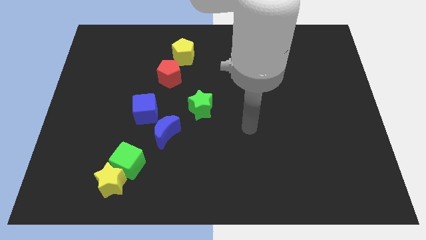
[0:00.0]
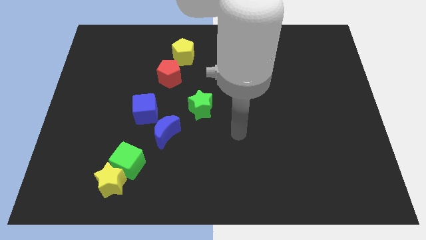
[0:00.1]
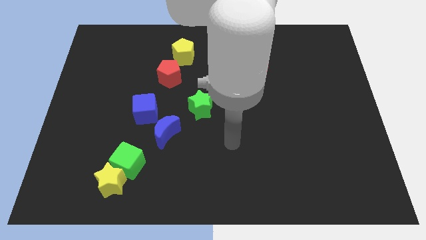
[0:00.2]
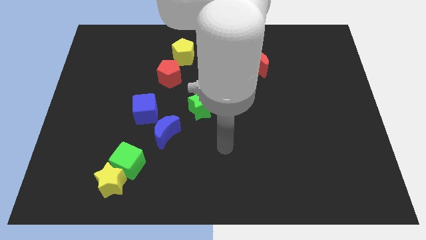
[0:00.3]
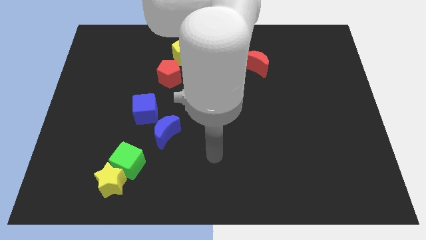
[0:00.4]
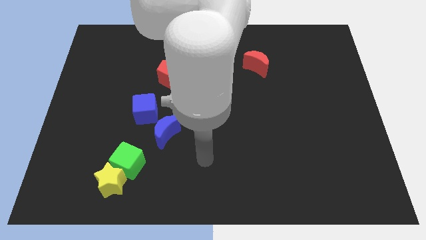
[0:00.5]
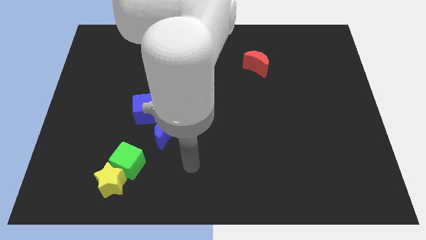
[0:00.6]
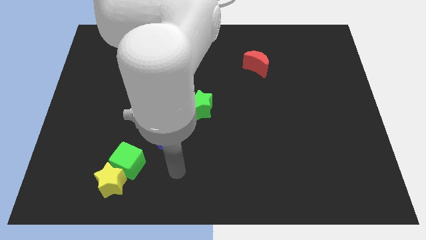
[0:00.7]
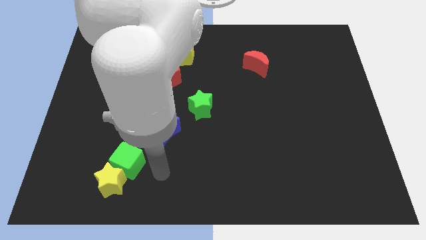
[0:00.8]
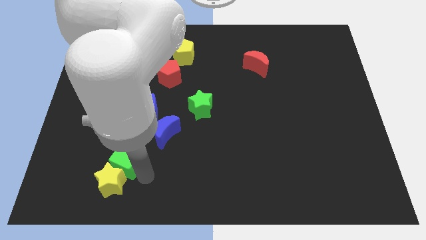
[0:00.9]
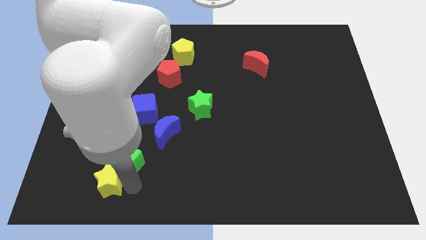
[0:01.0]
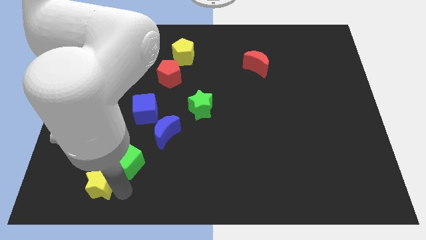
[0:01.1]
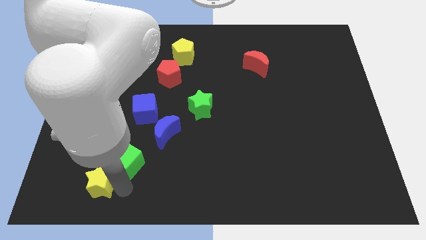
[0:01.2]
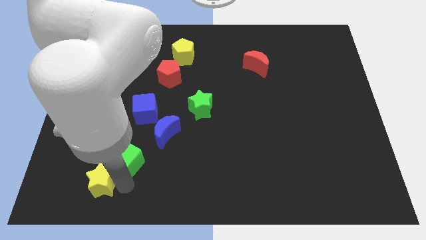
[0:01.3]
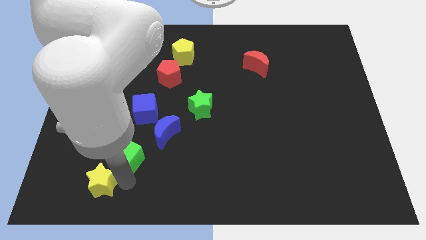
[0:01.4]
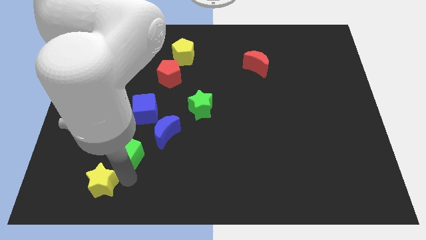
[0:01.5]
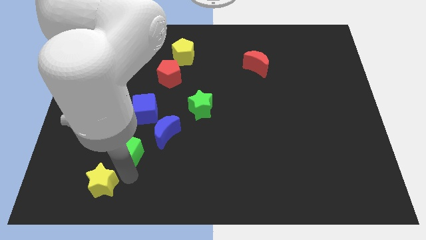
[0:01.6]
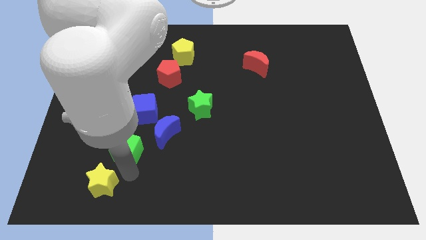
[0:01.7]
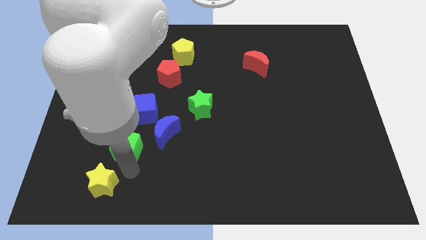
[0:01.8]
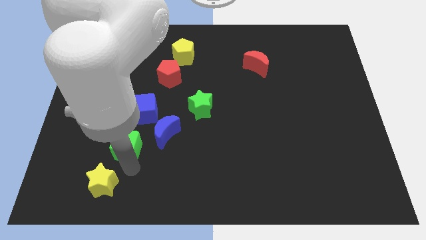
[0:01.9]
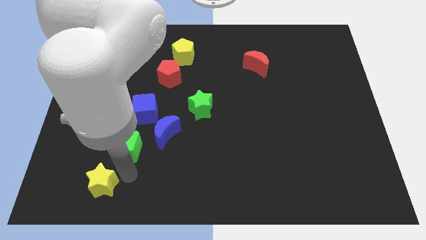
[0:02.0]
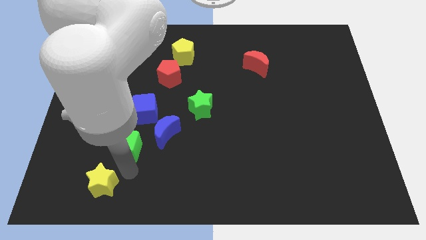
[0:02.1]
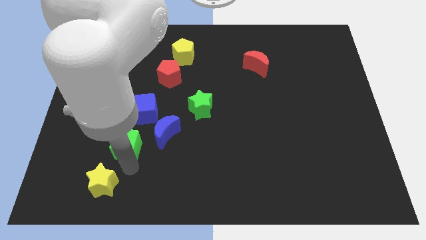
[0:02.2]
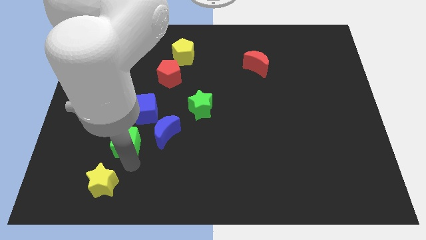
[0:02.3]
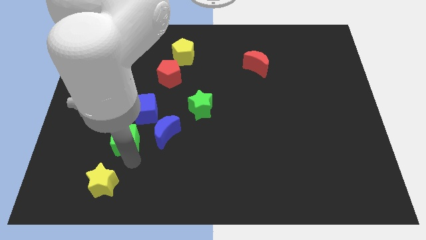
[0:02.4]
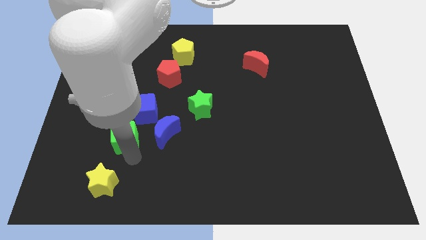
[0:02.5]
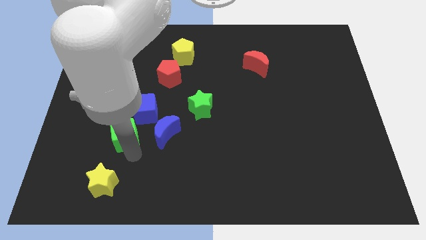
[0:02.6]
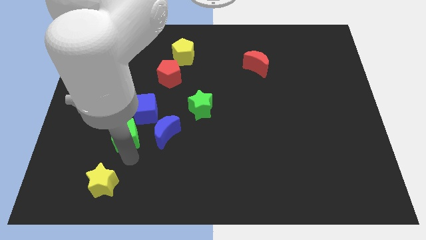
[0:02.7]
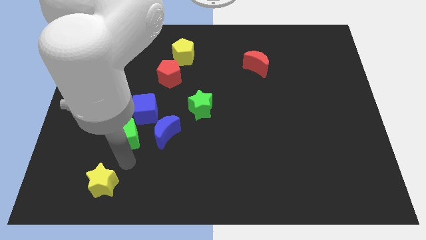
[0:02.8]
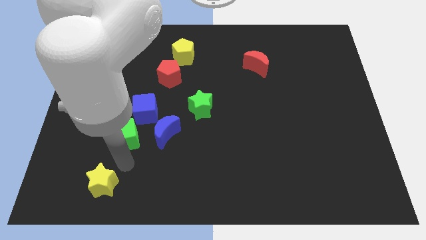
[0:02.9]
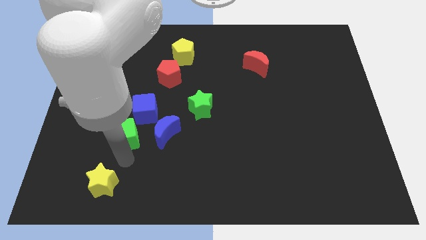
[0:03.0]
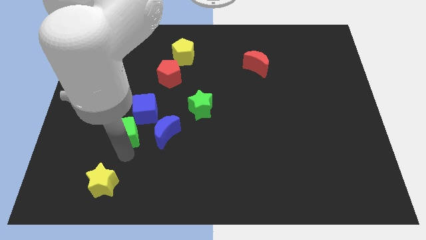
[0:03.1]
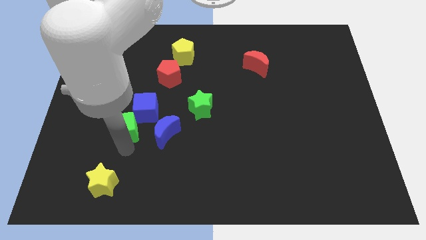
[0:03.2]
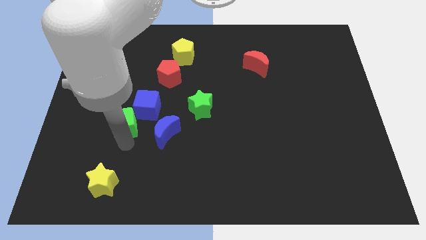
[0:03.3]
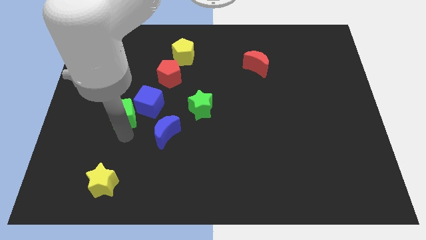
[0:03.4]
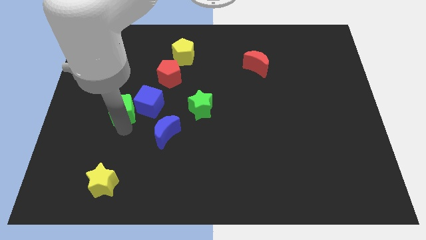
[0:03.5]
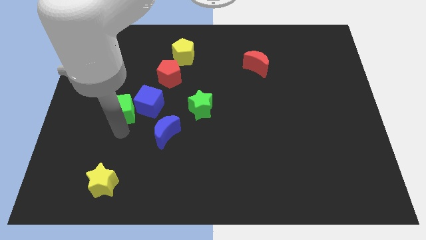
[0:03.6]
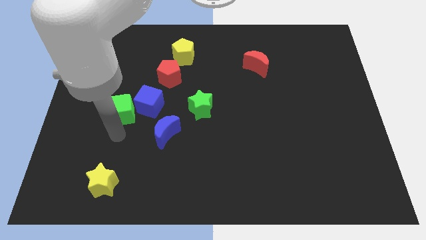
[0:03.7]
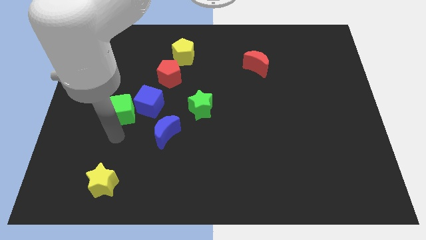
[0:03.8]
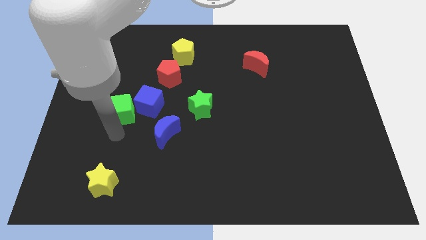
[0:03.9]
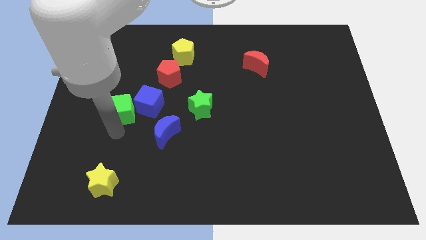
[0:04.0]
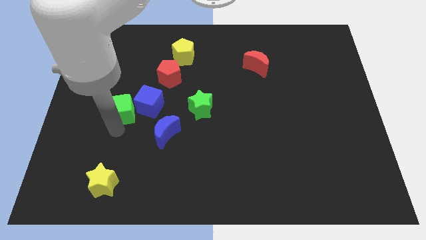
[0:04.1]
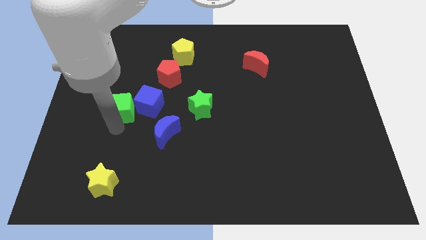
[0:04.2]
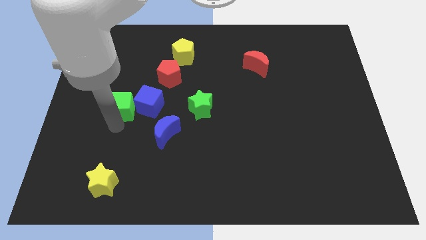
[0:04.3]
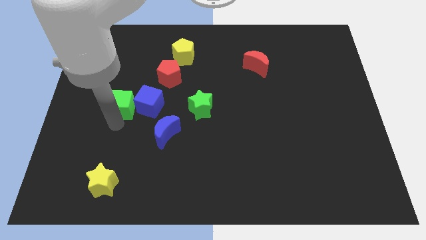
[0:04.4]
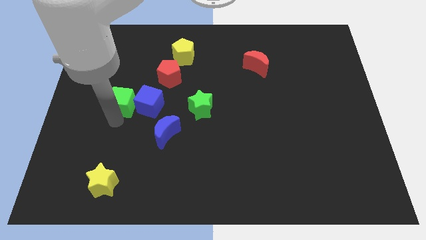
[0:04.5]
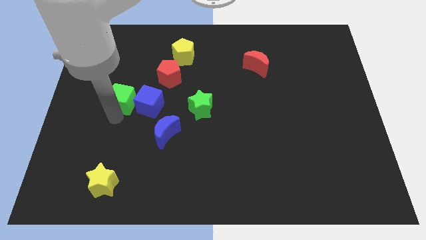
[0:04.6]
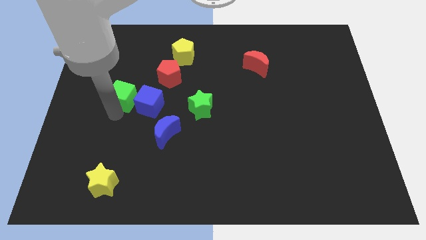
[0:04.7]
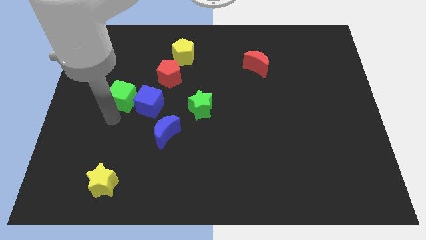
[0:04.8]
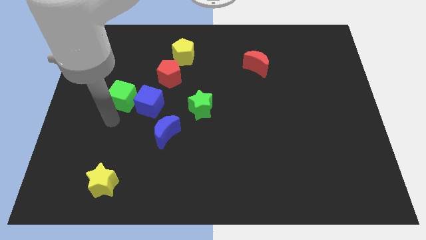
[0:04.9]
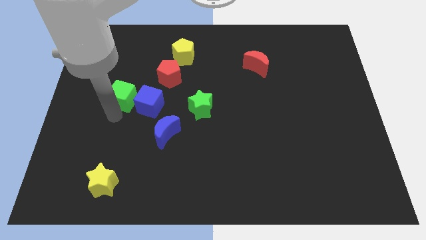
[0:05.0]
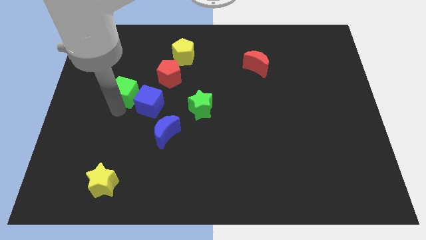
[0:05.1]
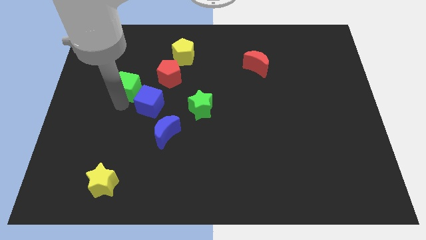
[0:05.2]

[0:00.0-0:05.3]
slide the green cube upwards

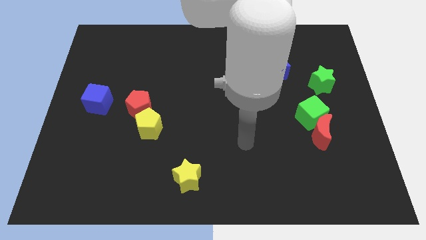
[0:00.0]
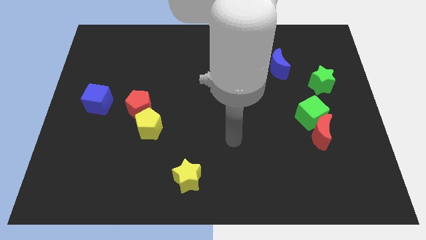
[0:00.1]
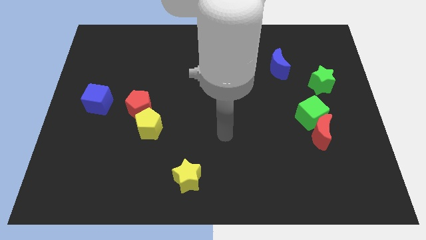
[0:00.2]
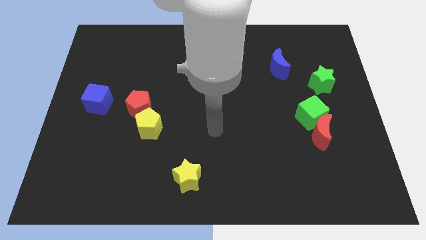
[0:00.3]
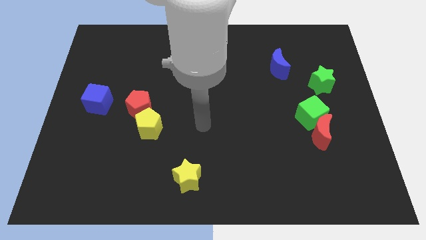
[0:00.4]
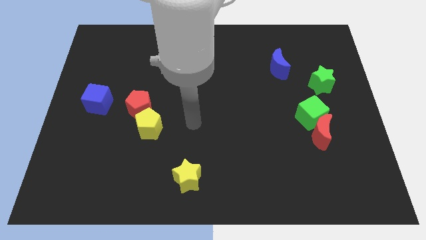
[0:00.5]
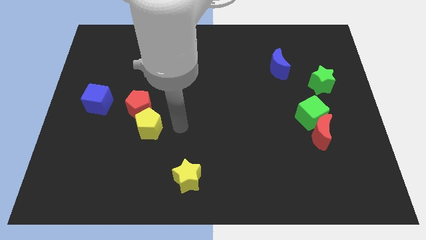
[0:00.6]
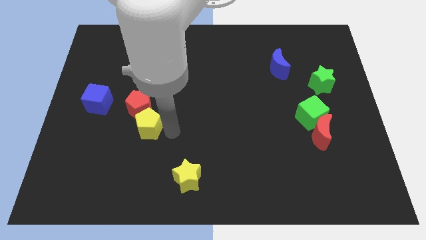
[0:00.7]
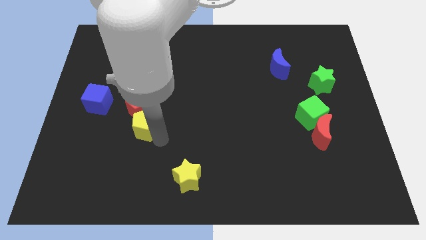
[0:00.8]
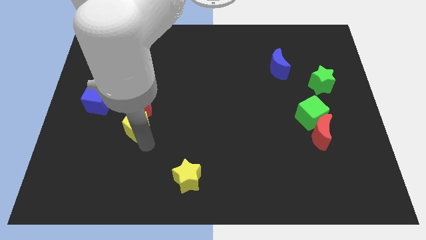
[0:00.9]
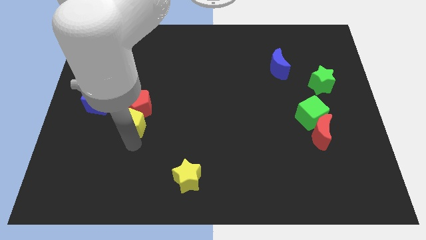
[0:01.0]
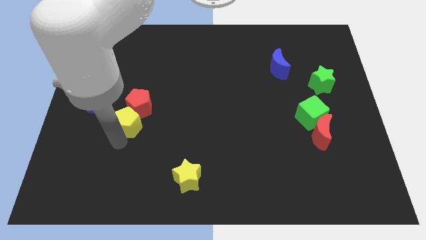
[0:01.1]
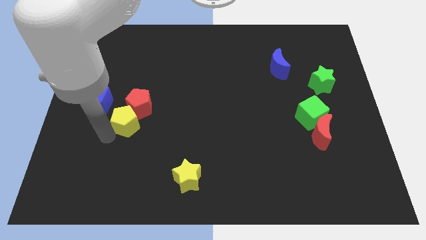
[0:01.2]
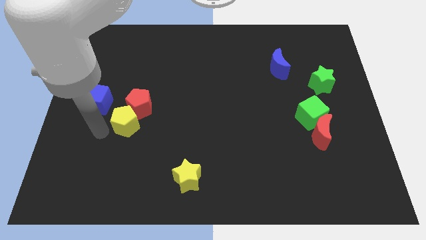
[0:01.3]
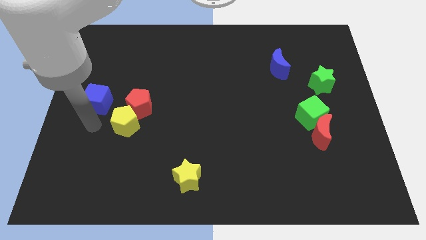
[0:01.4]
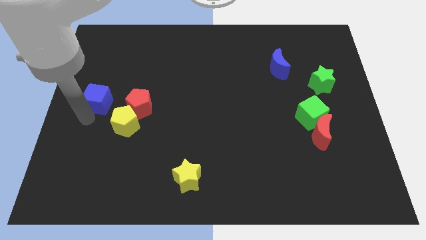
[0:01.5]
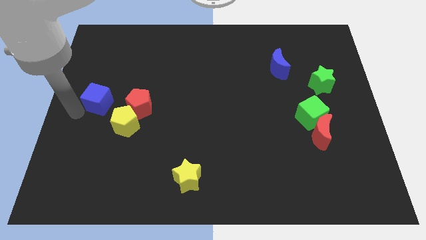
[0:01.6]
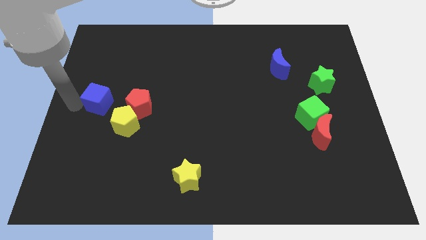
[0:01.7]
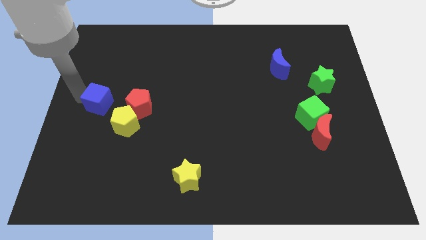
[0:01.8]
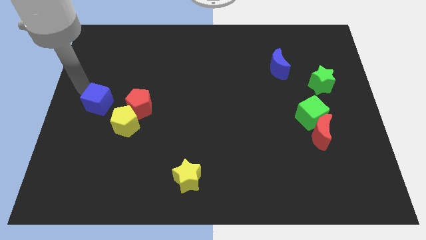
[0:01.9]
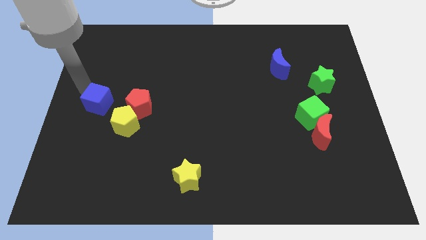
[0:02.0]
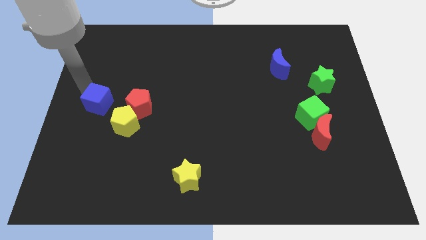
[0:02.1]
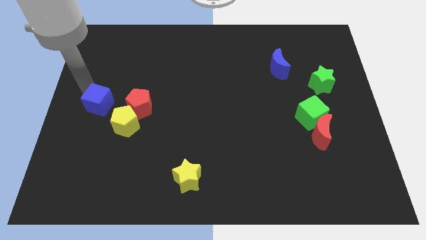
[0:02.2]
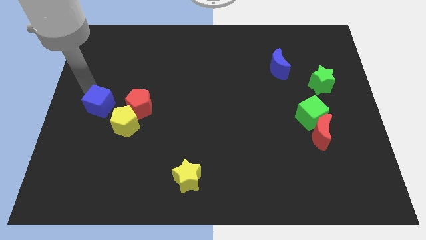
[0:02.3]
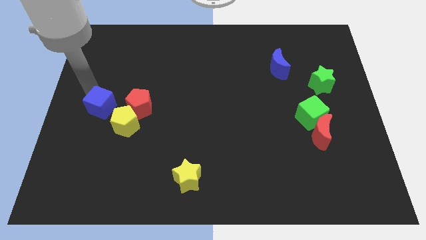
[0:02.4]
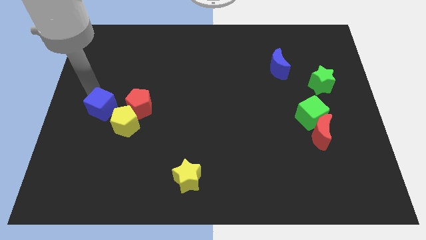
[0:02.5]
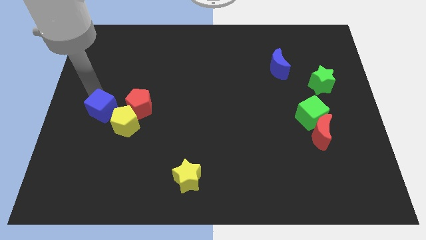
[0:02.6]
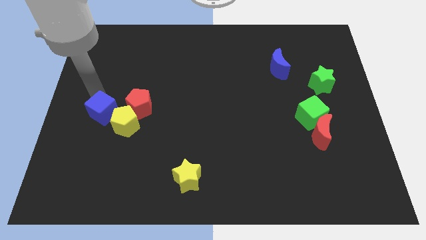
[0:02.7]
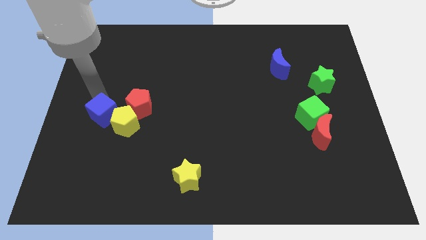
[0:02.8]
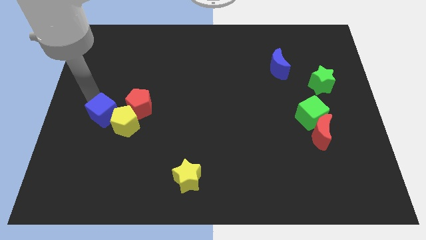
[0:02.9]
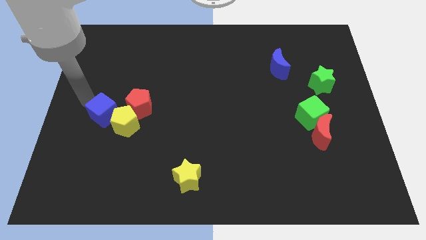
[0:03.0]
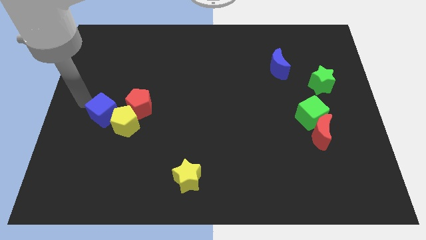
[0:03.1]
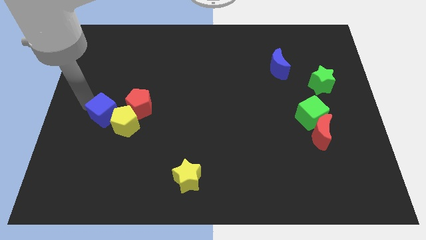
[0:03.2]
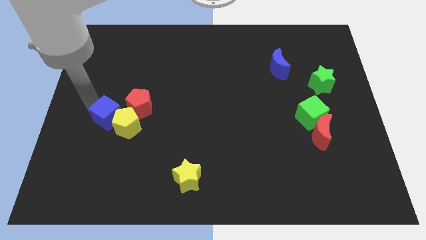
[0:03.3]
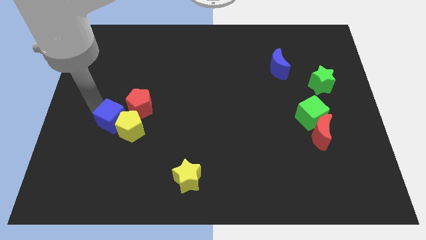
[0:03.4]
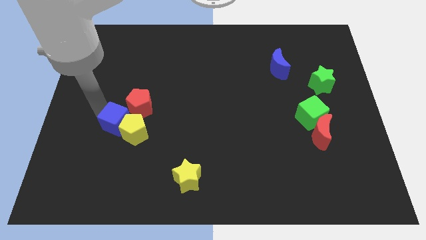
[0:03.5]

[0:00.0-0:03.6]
move the blue cube a little bit down and right diagonally
